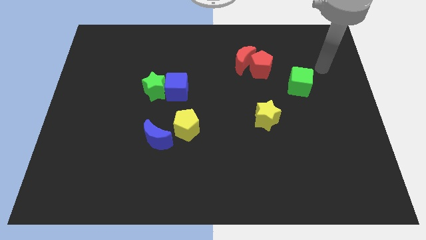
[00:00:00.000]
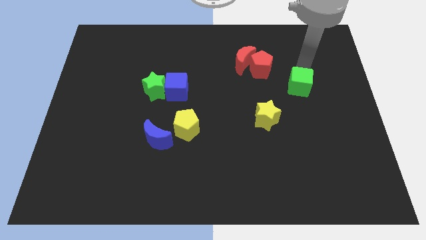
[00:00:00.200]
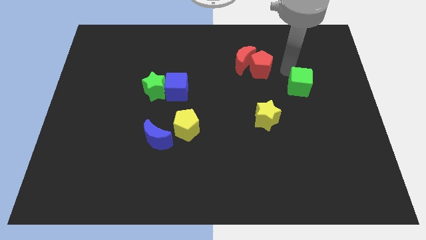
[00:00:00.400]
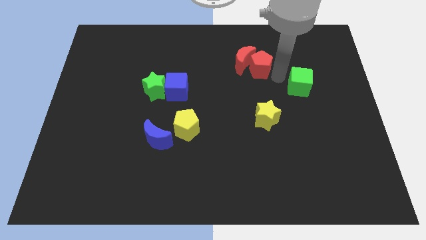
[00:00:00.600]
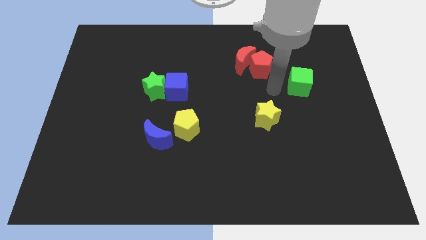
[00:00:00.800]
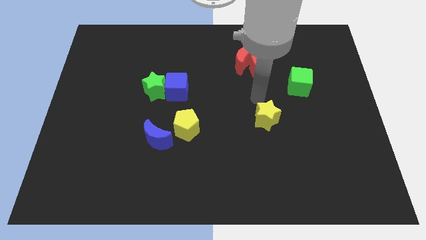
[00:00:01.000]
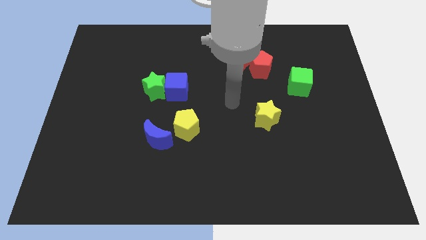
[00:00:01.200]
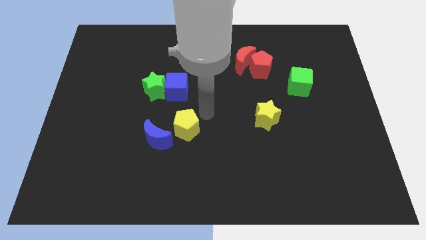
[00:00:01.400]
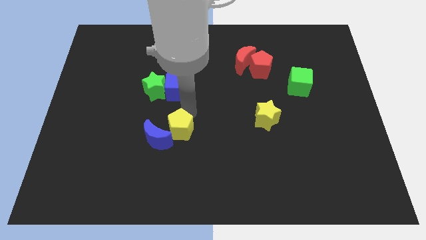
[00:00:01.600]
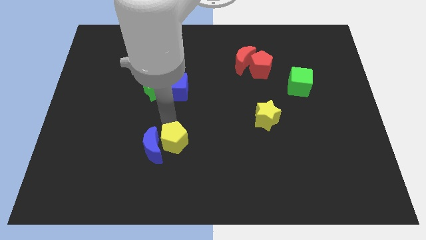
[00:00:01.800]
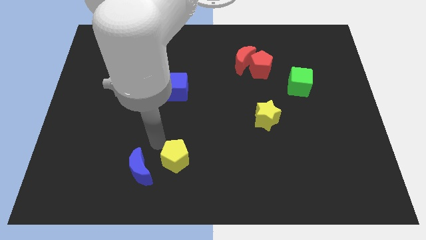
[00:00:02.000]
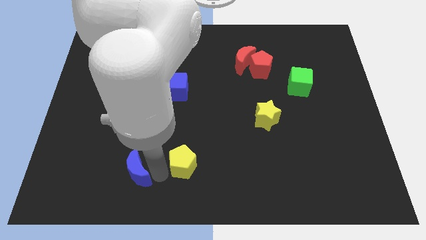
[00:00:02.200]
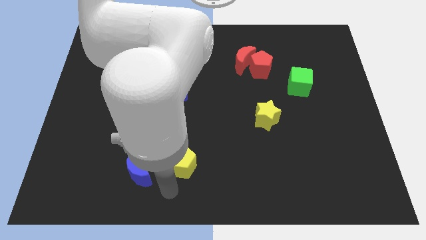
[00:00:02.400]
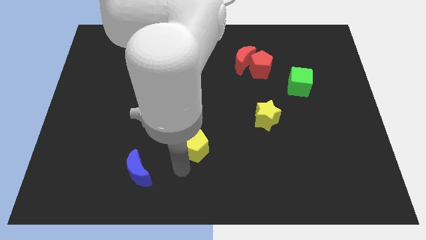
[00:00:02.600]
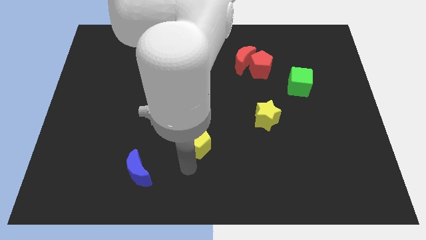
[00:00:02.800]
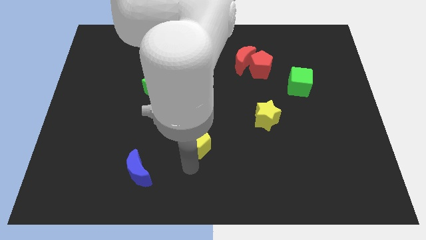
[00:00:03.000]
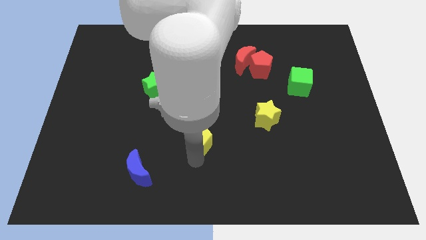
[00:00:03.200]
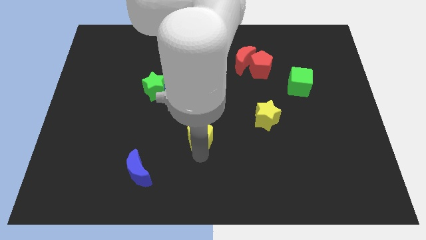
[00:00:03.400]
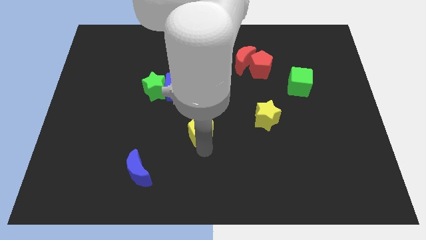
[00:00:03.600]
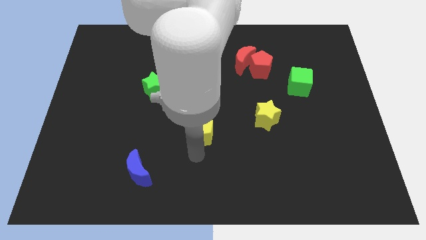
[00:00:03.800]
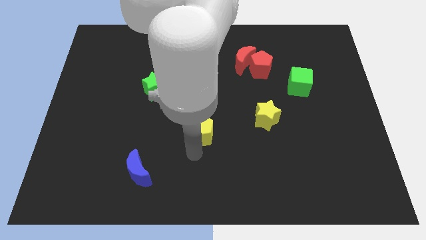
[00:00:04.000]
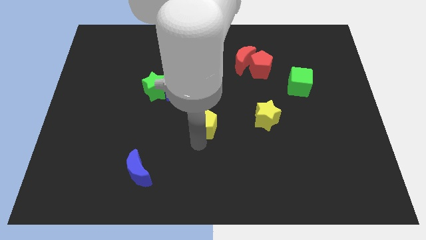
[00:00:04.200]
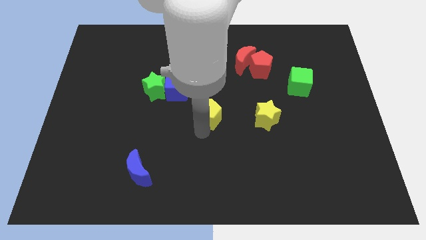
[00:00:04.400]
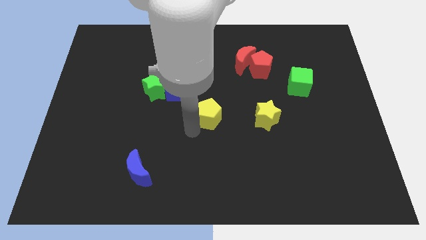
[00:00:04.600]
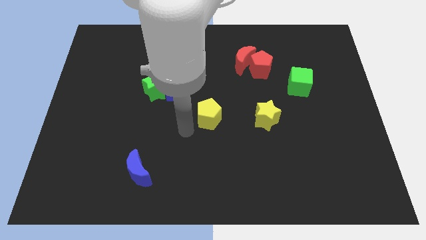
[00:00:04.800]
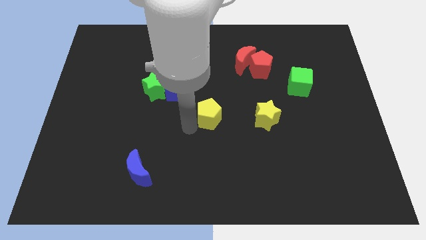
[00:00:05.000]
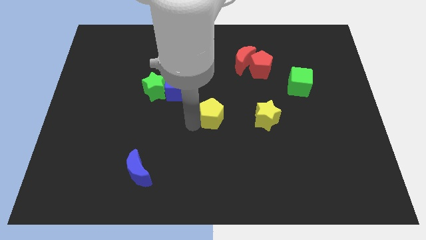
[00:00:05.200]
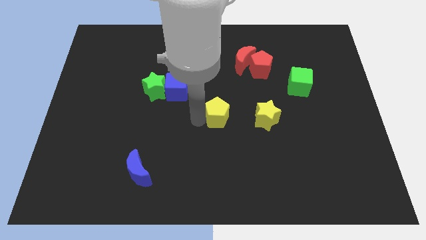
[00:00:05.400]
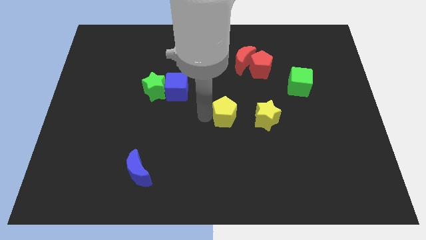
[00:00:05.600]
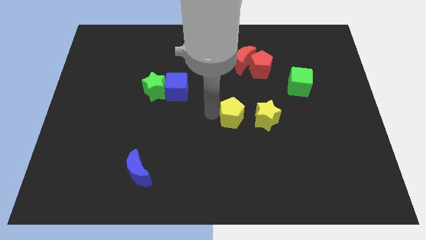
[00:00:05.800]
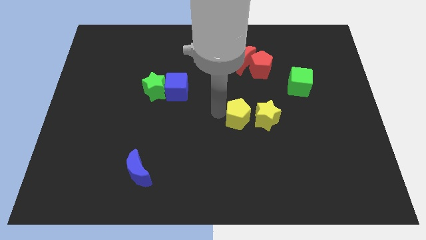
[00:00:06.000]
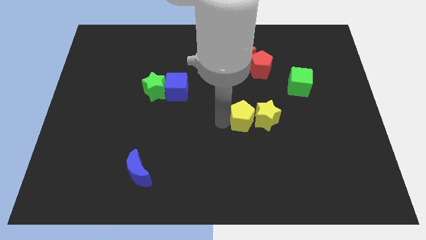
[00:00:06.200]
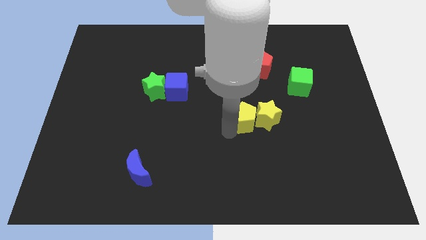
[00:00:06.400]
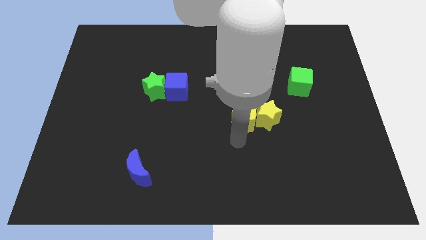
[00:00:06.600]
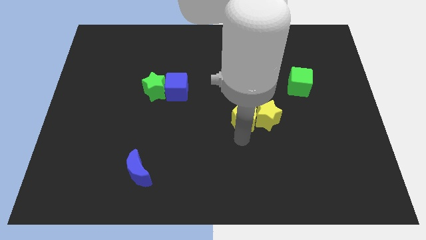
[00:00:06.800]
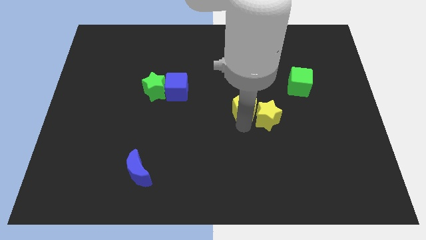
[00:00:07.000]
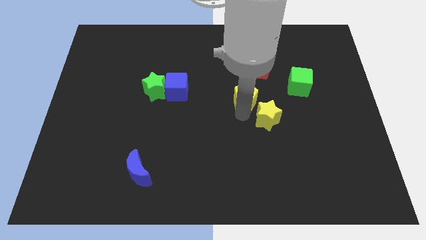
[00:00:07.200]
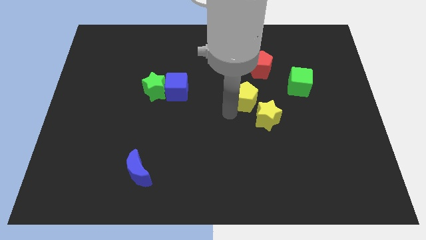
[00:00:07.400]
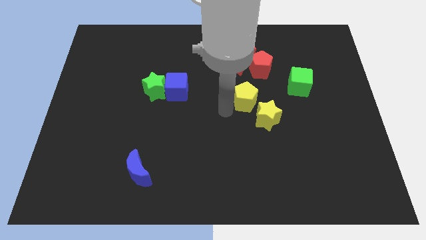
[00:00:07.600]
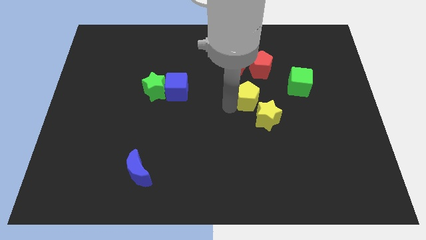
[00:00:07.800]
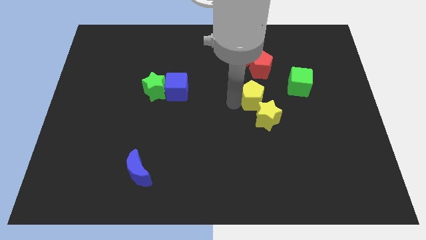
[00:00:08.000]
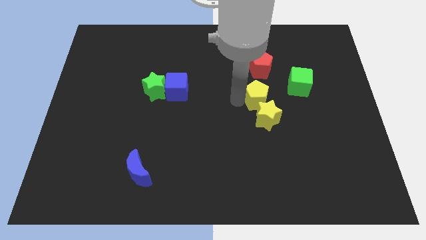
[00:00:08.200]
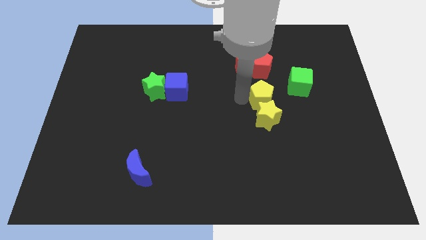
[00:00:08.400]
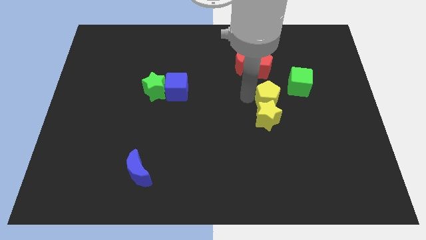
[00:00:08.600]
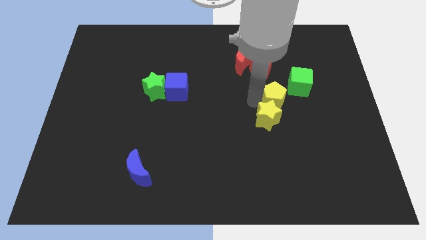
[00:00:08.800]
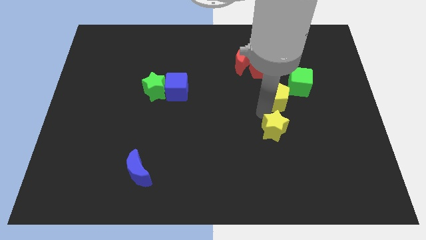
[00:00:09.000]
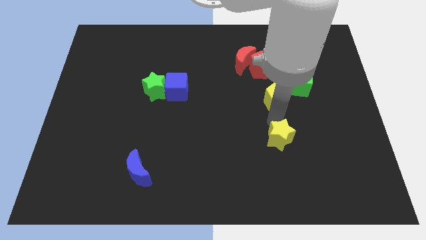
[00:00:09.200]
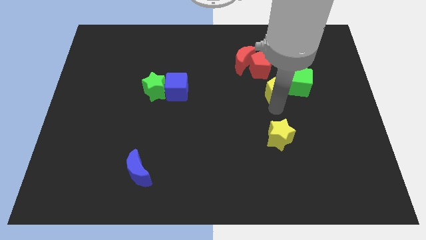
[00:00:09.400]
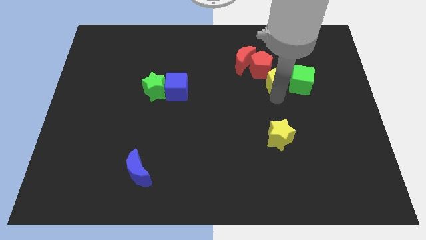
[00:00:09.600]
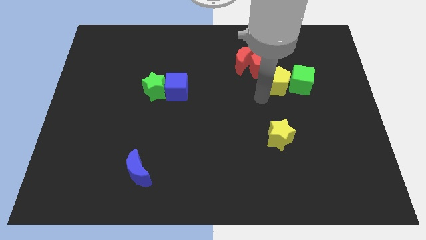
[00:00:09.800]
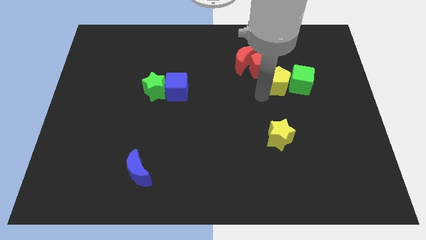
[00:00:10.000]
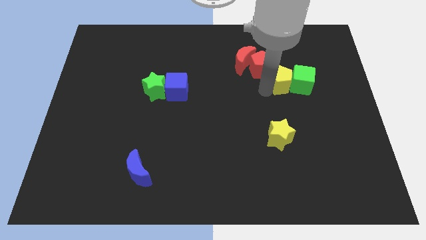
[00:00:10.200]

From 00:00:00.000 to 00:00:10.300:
move the yellow pentagon to the right side of the red pentagon

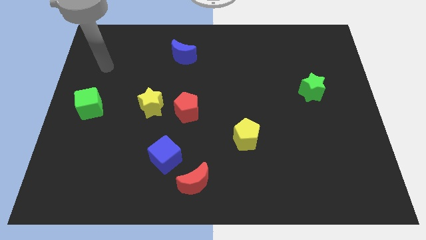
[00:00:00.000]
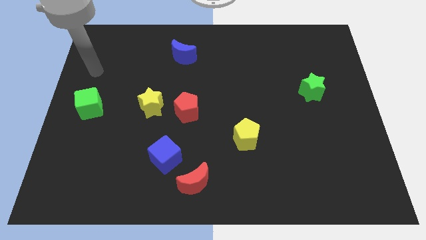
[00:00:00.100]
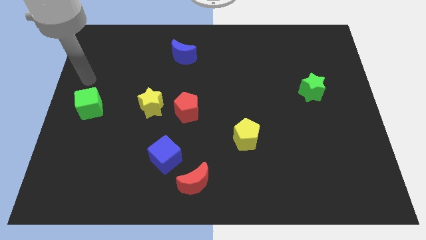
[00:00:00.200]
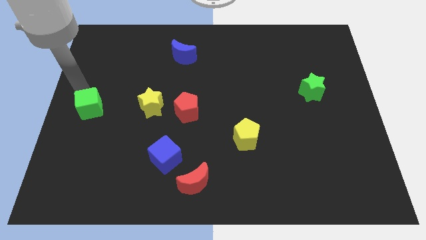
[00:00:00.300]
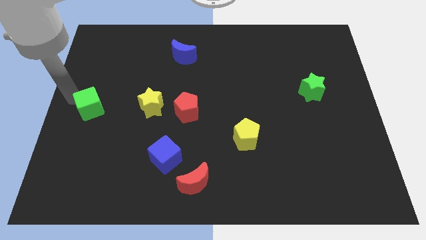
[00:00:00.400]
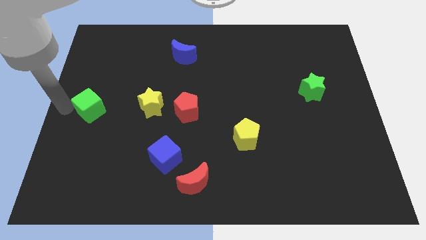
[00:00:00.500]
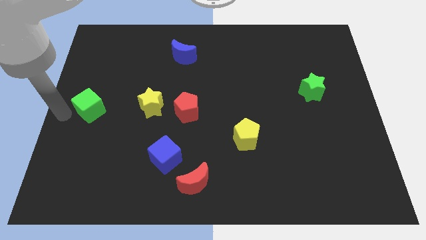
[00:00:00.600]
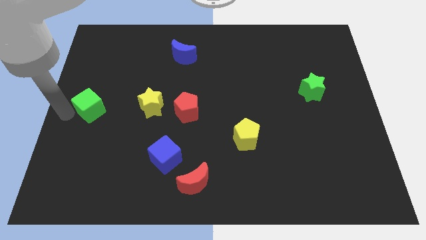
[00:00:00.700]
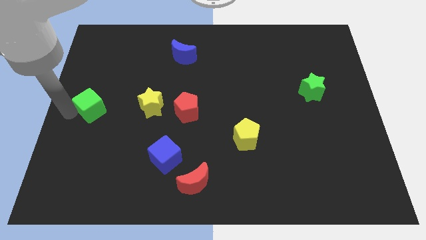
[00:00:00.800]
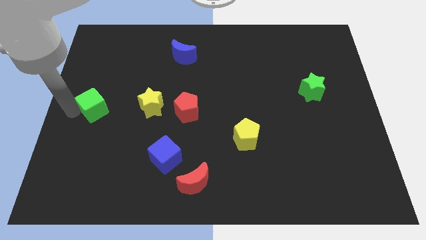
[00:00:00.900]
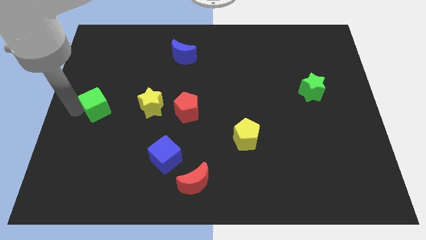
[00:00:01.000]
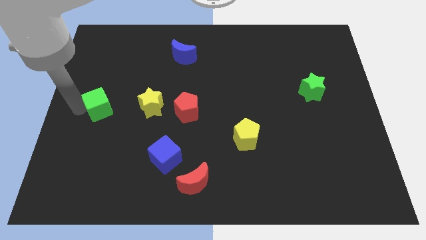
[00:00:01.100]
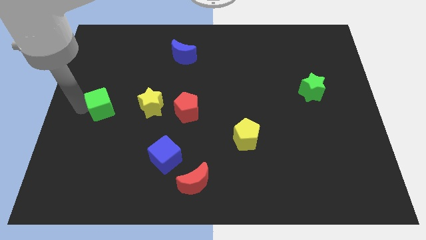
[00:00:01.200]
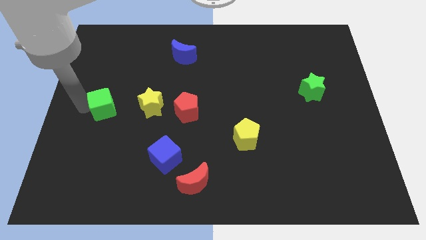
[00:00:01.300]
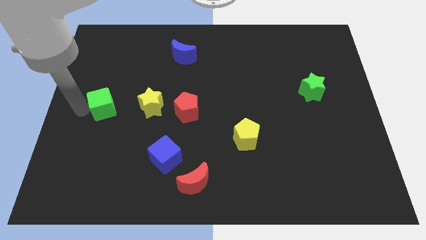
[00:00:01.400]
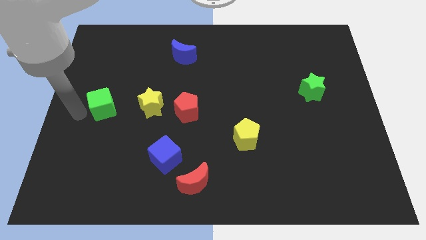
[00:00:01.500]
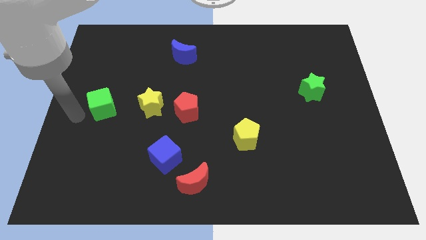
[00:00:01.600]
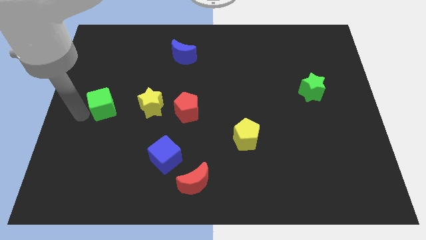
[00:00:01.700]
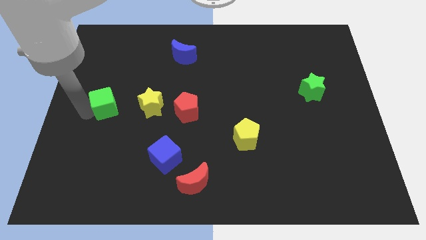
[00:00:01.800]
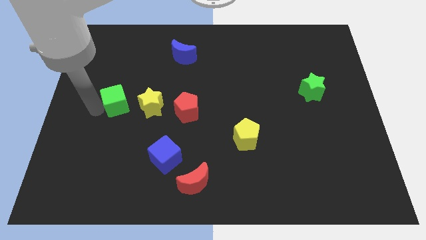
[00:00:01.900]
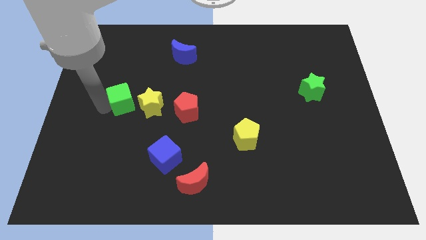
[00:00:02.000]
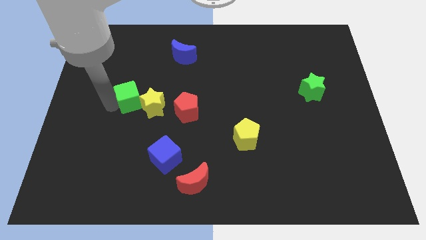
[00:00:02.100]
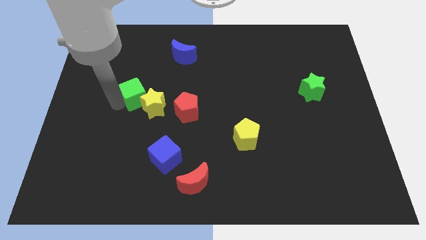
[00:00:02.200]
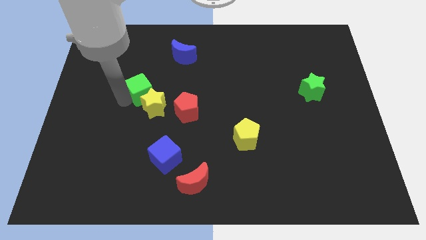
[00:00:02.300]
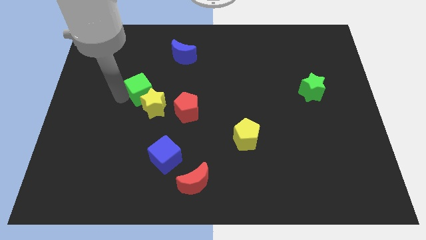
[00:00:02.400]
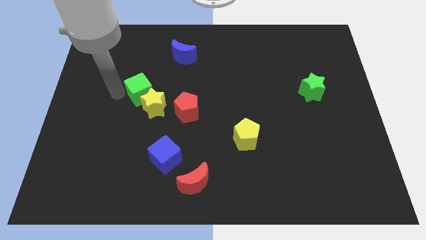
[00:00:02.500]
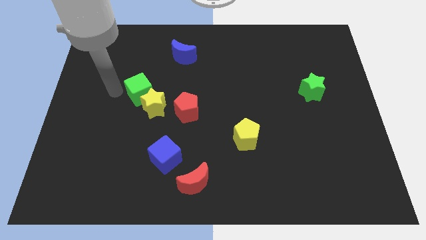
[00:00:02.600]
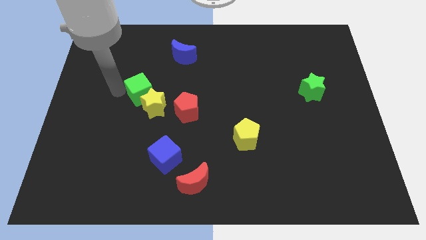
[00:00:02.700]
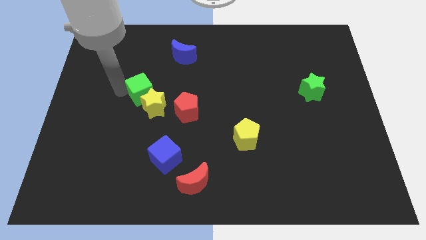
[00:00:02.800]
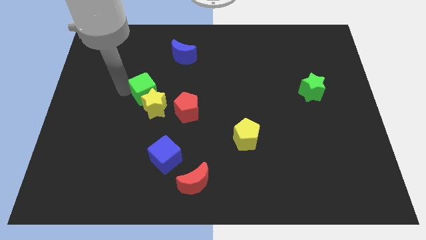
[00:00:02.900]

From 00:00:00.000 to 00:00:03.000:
move the green cube diagonally up and to the left of the red pentagon
